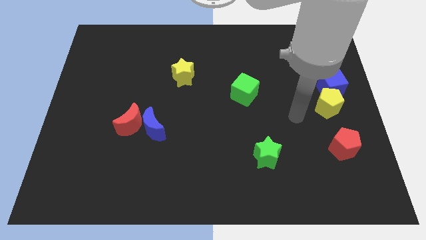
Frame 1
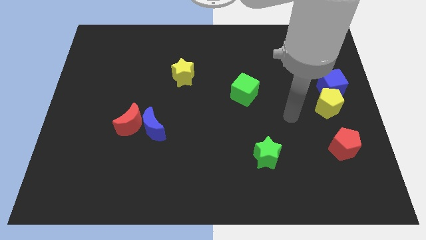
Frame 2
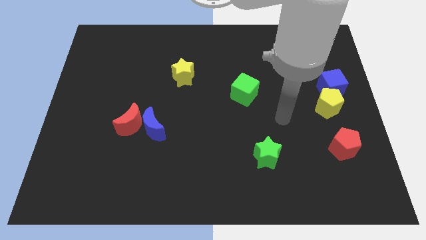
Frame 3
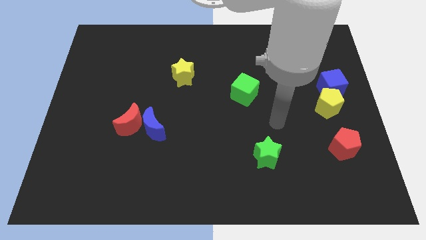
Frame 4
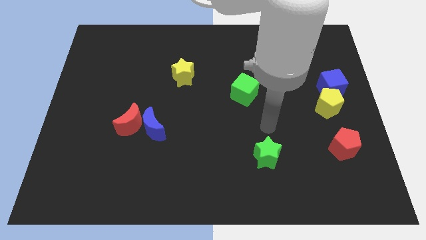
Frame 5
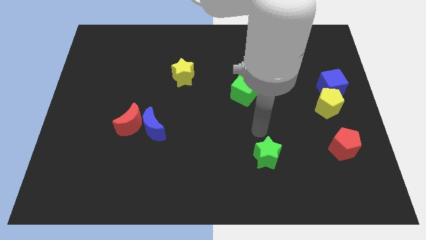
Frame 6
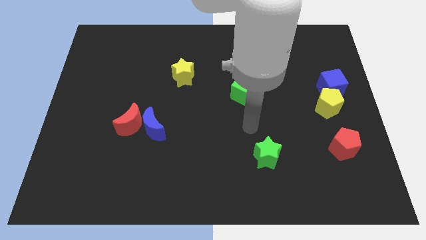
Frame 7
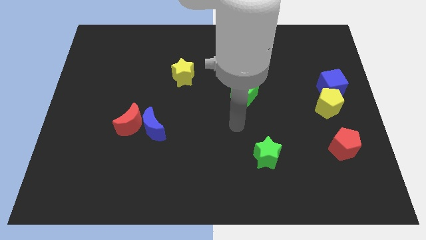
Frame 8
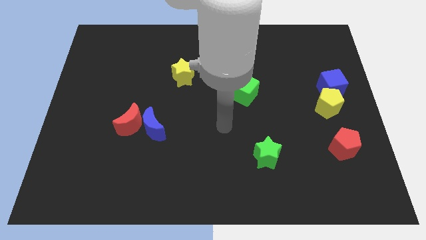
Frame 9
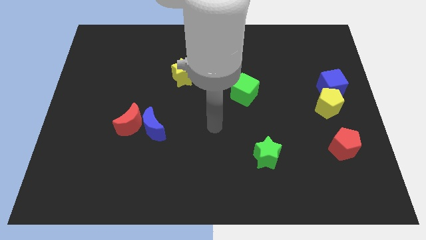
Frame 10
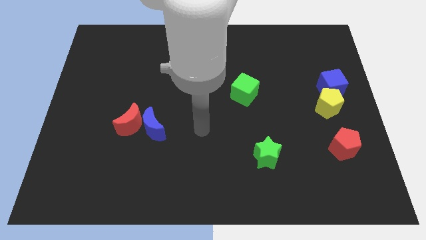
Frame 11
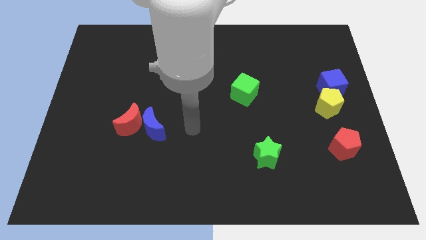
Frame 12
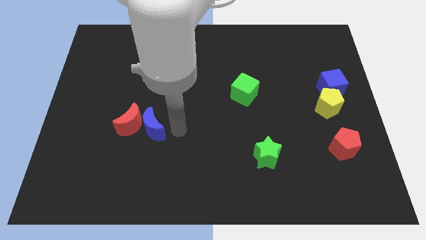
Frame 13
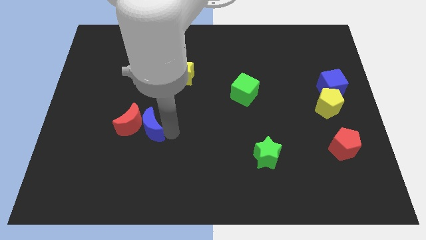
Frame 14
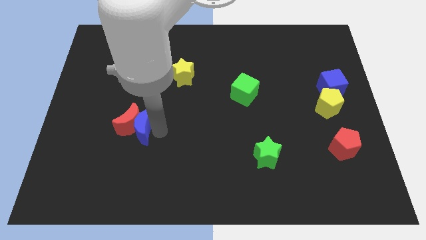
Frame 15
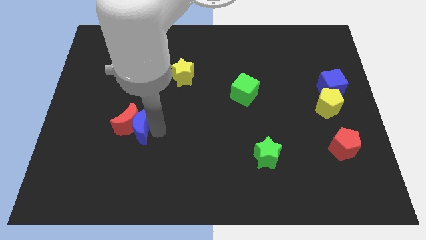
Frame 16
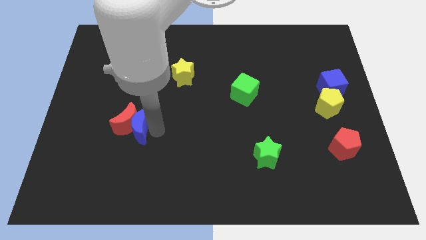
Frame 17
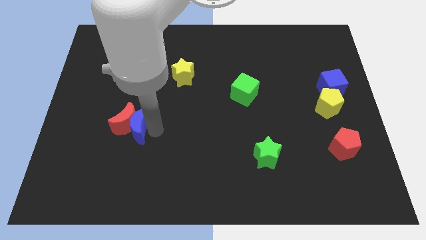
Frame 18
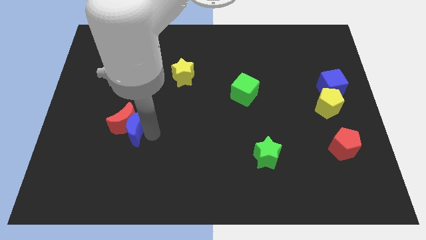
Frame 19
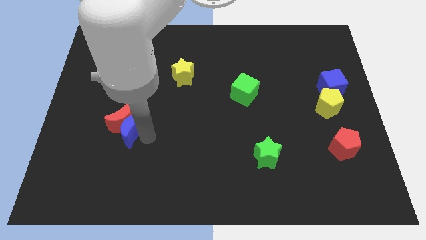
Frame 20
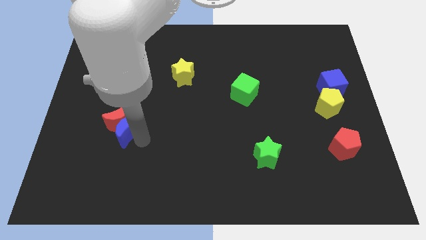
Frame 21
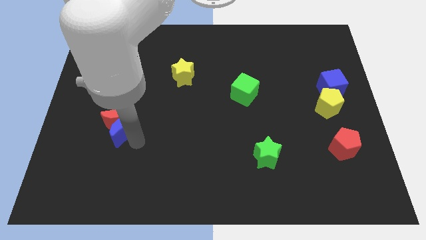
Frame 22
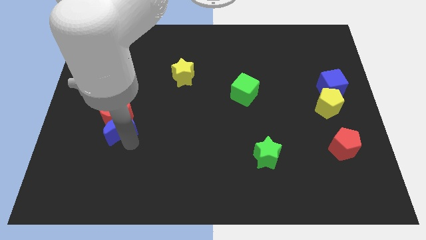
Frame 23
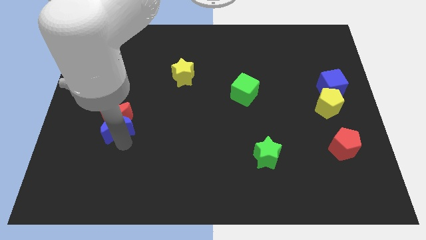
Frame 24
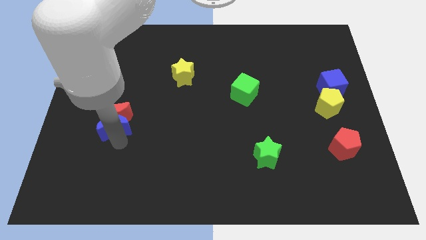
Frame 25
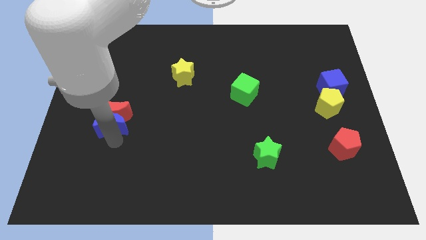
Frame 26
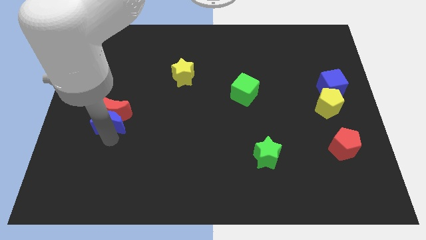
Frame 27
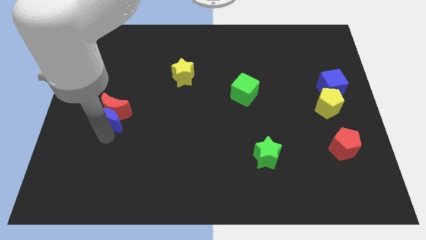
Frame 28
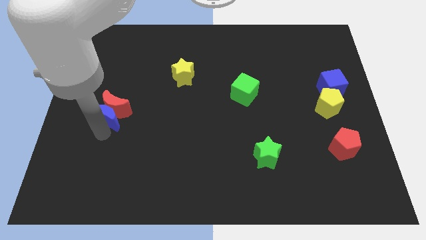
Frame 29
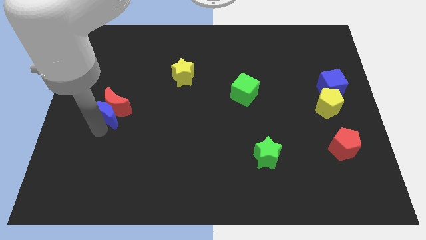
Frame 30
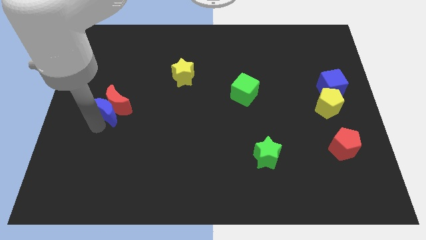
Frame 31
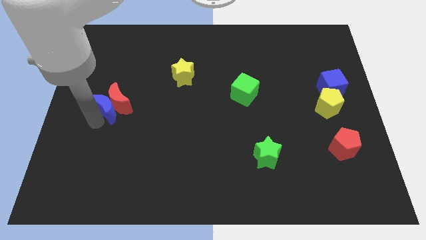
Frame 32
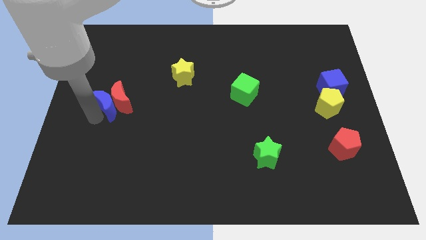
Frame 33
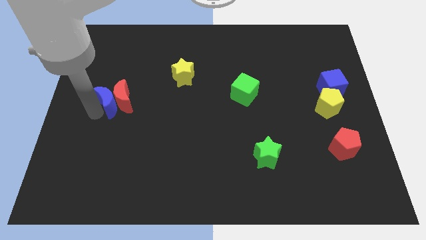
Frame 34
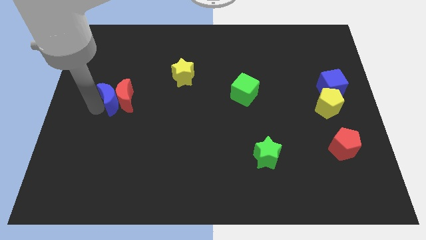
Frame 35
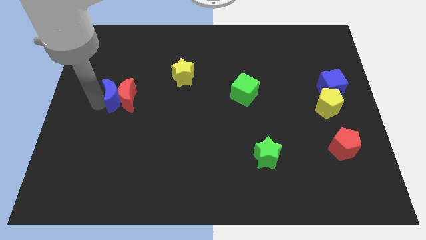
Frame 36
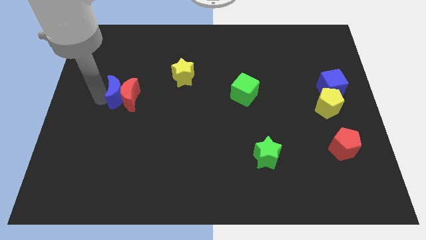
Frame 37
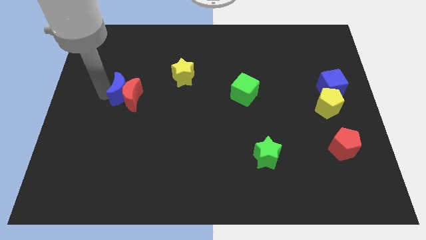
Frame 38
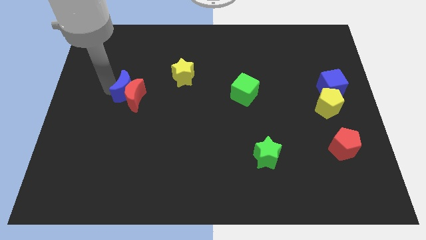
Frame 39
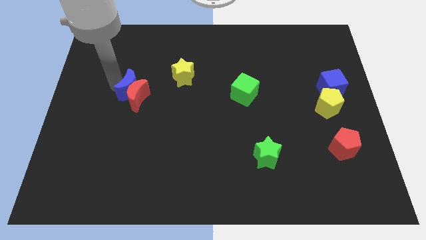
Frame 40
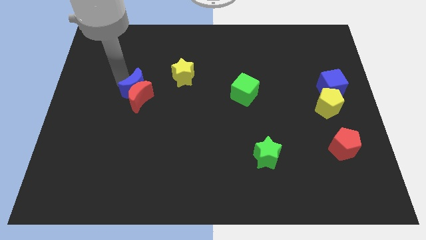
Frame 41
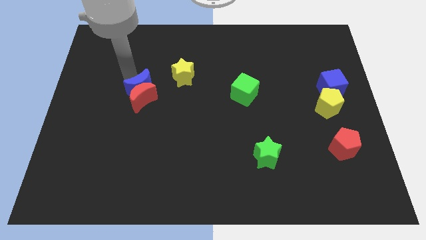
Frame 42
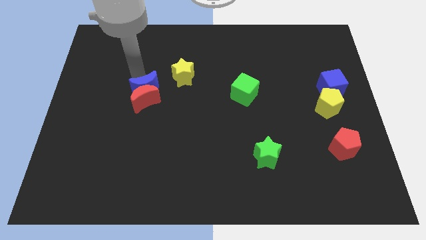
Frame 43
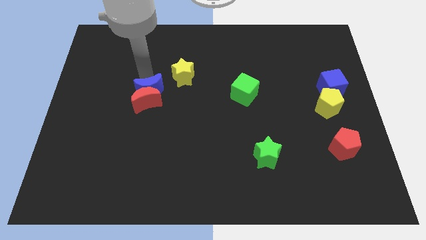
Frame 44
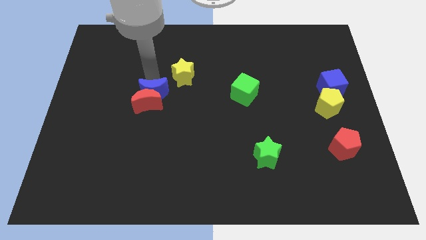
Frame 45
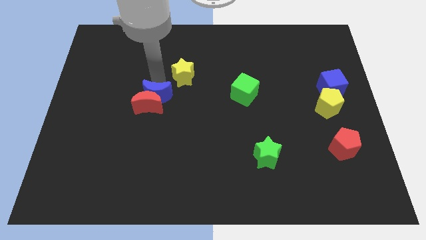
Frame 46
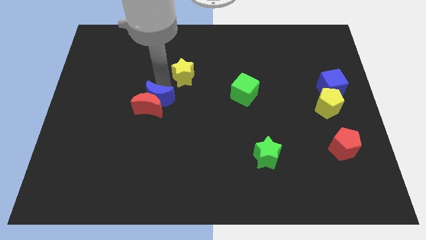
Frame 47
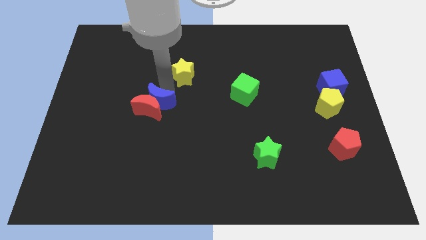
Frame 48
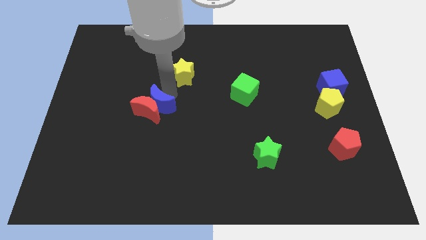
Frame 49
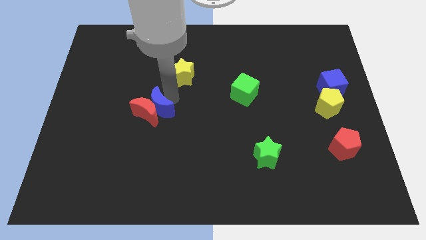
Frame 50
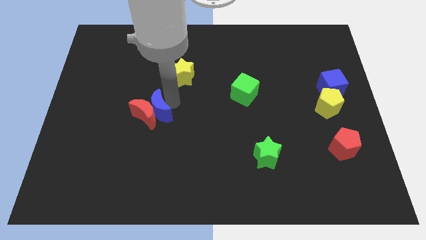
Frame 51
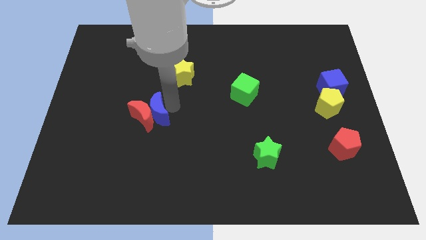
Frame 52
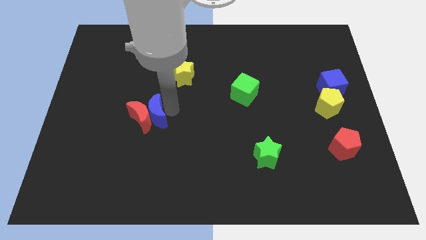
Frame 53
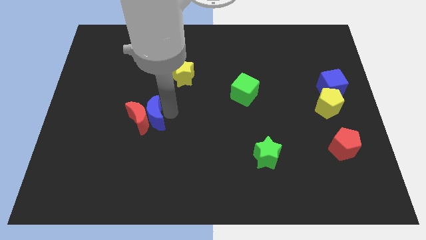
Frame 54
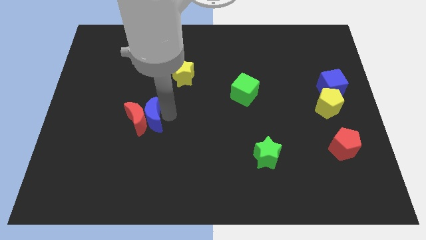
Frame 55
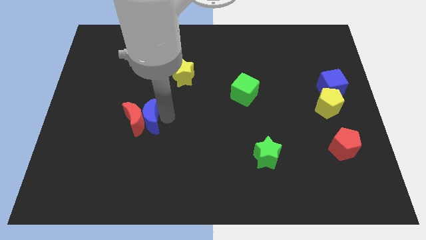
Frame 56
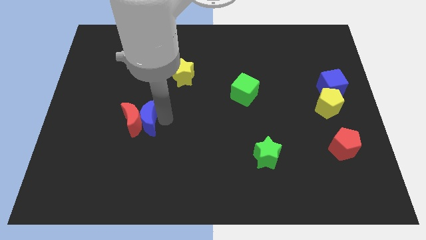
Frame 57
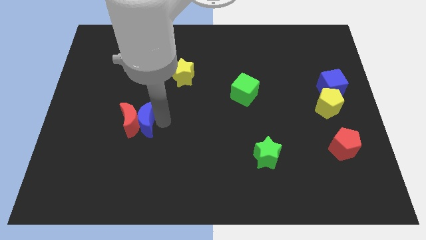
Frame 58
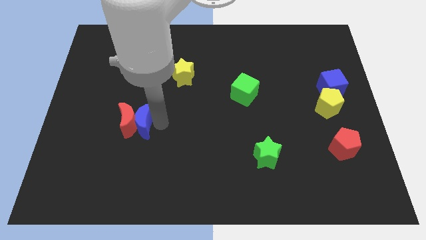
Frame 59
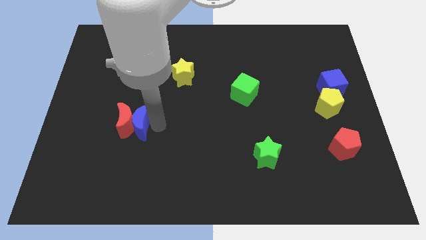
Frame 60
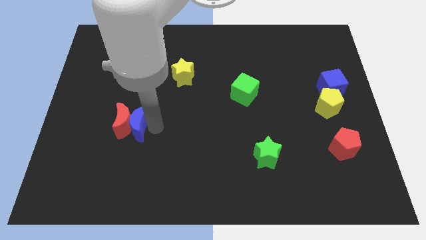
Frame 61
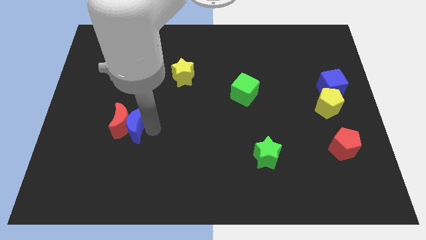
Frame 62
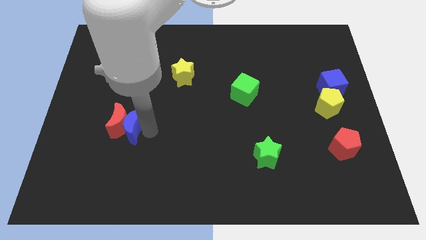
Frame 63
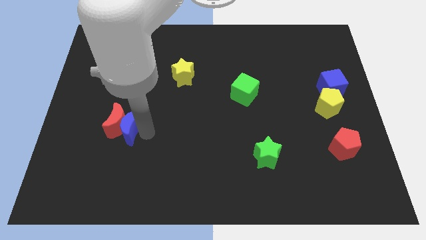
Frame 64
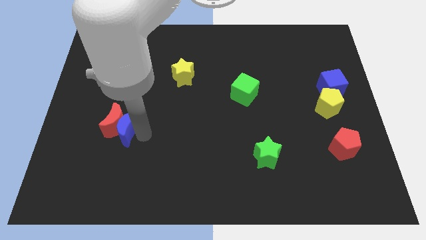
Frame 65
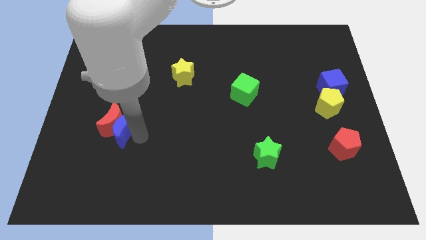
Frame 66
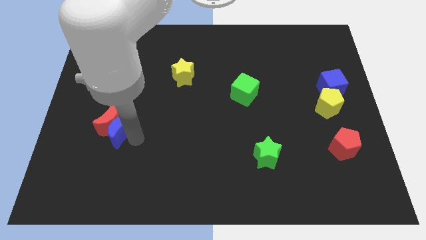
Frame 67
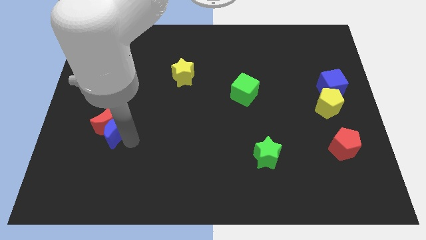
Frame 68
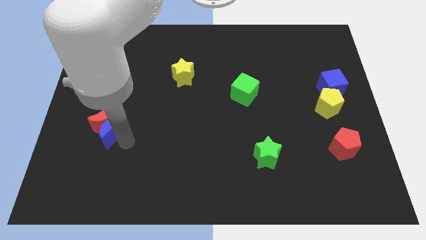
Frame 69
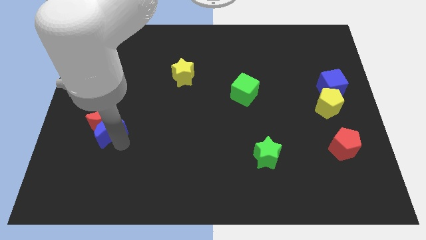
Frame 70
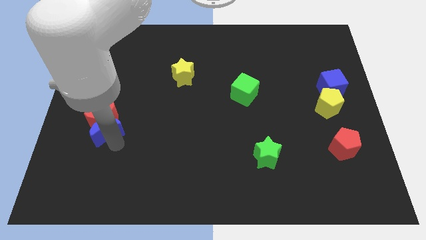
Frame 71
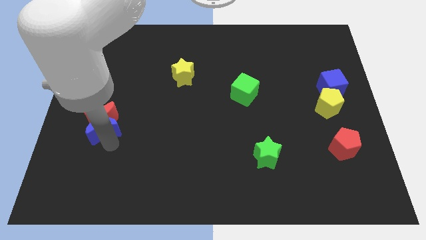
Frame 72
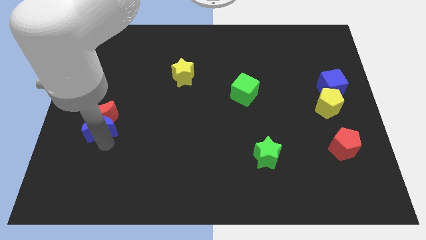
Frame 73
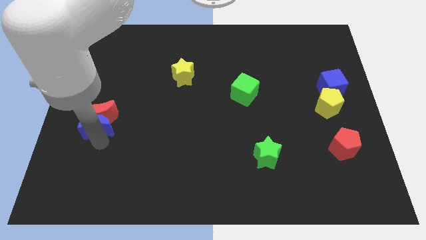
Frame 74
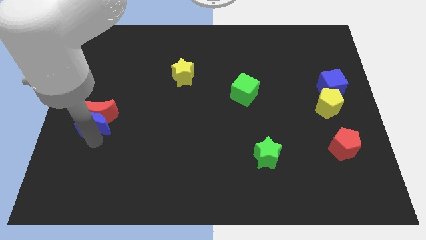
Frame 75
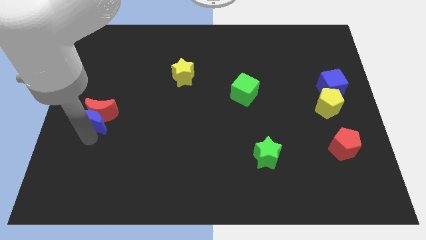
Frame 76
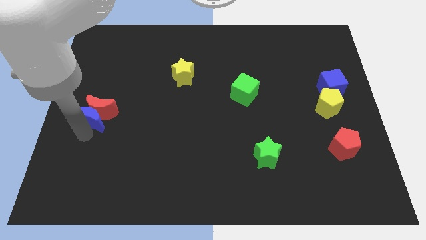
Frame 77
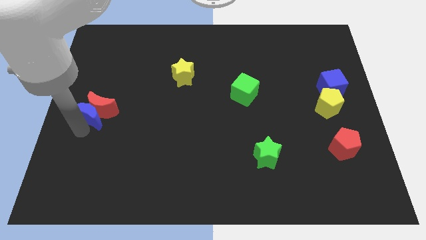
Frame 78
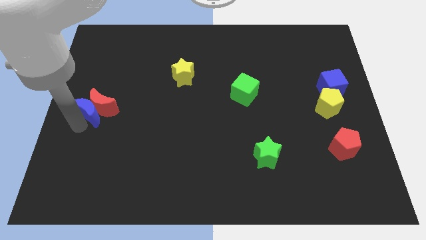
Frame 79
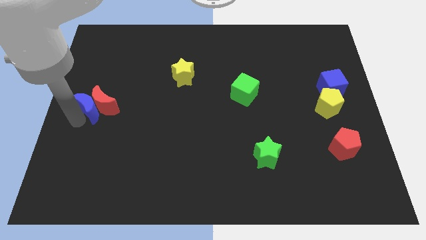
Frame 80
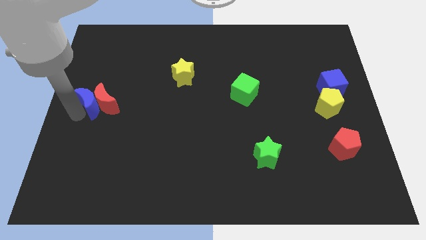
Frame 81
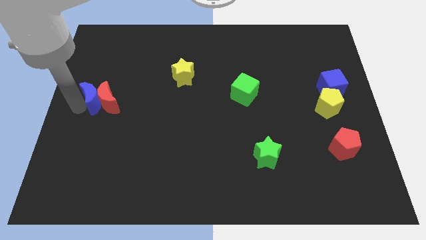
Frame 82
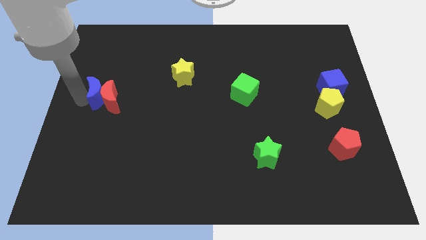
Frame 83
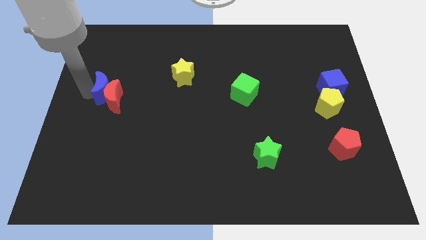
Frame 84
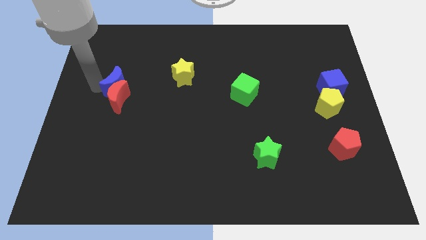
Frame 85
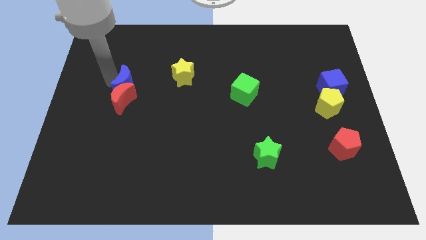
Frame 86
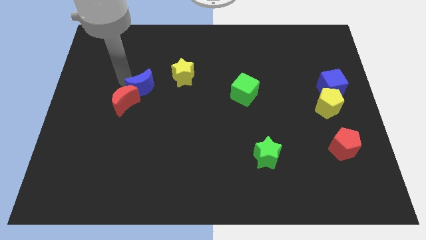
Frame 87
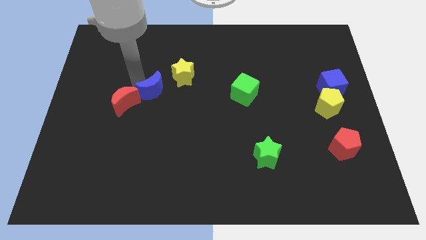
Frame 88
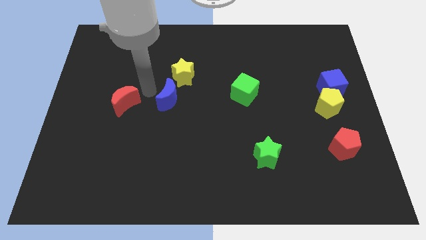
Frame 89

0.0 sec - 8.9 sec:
pull the red moon apart from the blue moon

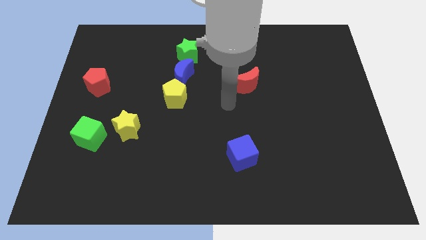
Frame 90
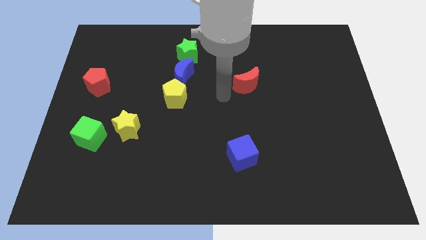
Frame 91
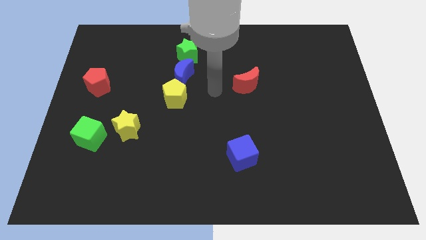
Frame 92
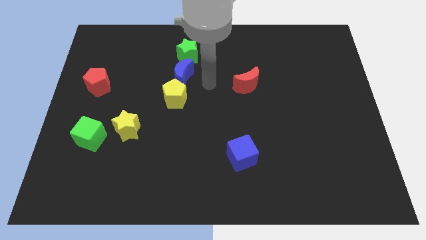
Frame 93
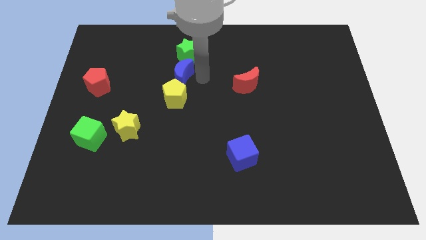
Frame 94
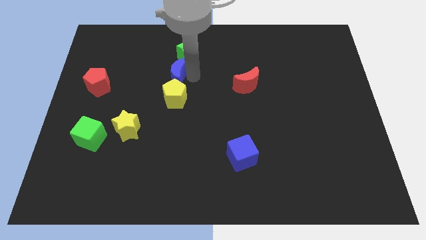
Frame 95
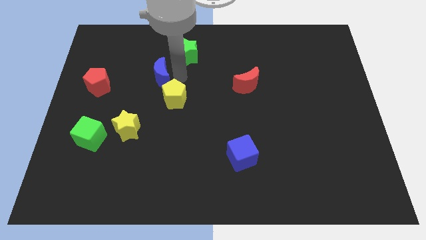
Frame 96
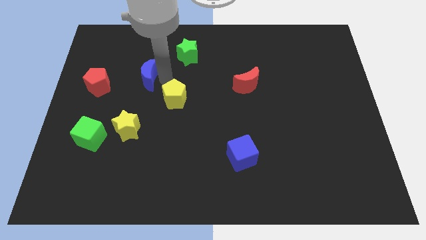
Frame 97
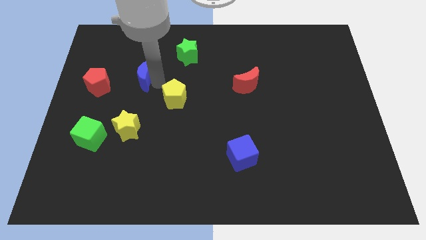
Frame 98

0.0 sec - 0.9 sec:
separate the yellow pentagon from the blue moon
